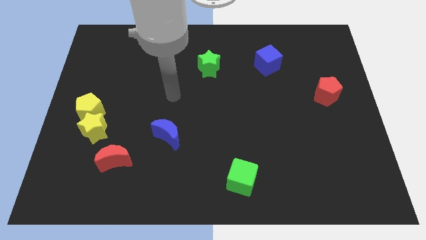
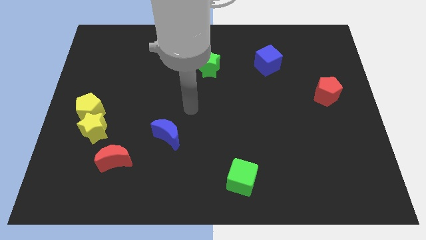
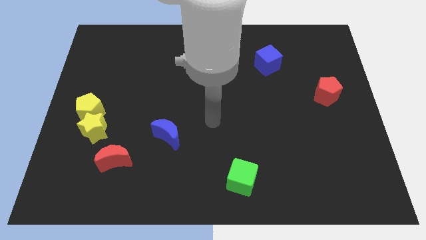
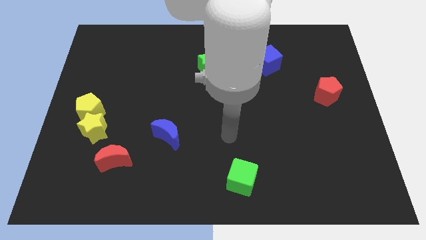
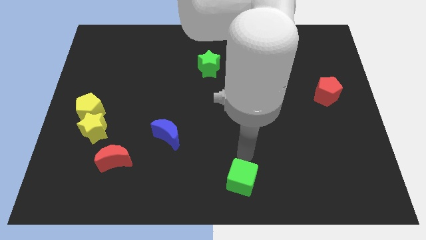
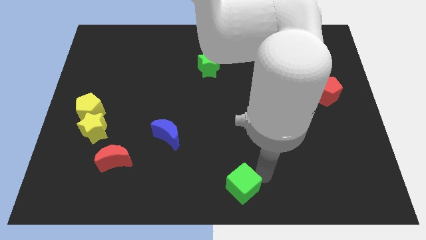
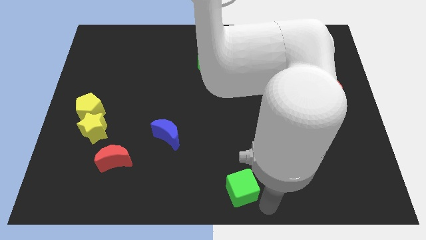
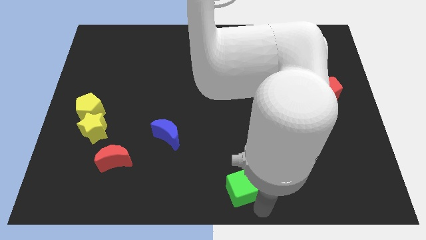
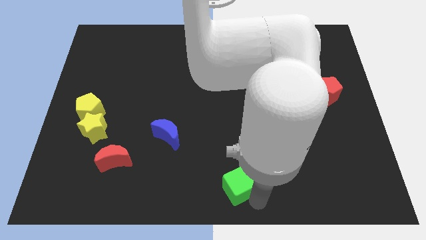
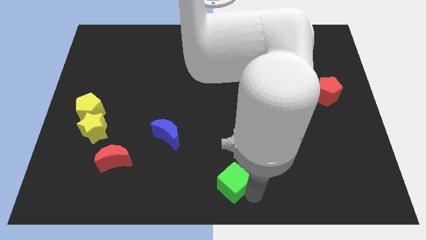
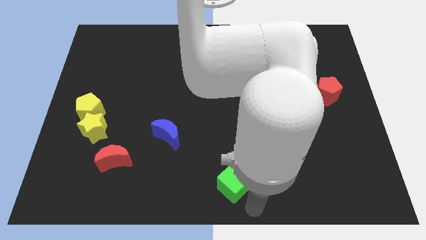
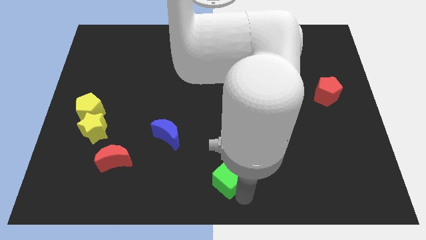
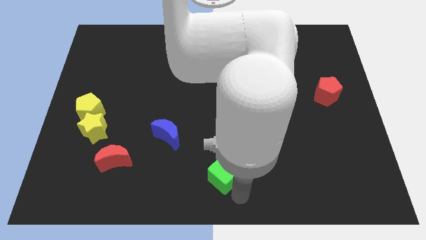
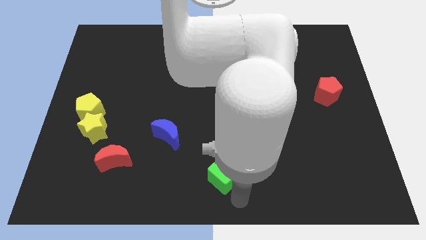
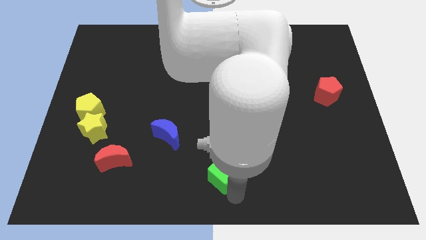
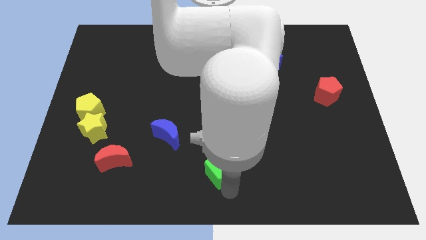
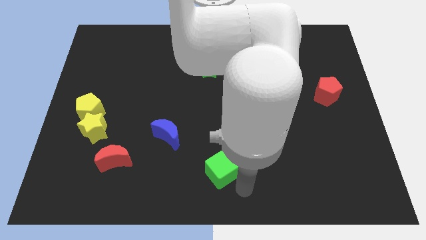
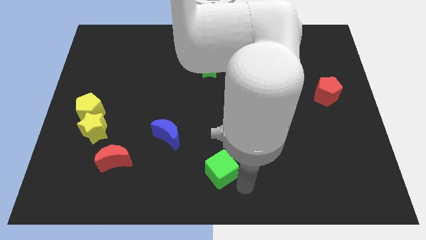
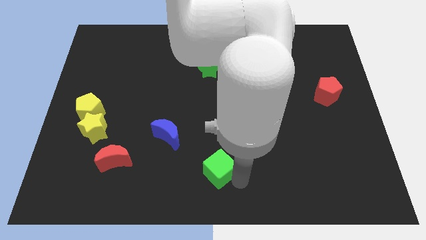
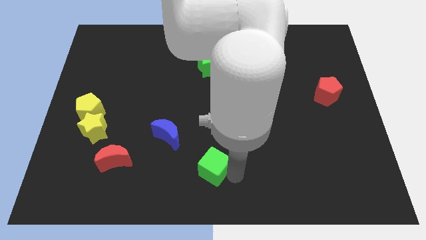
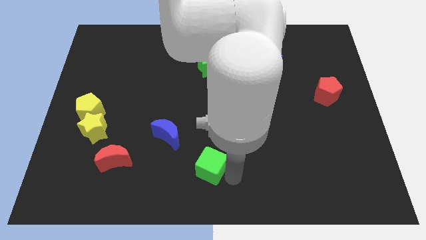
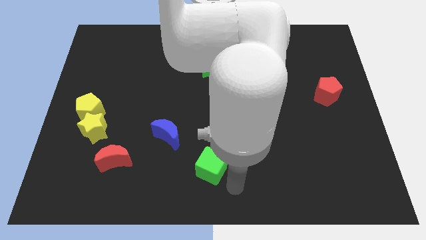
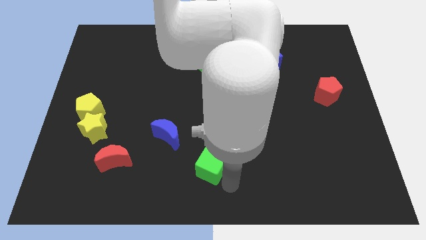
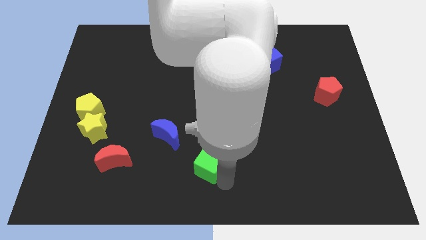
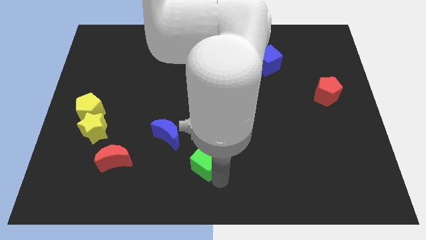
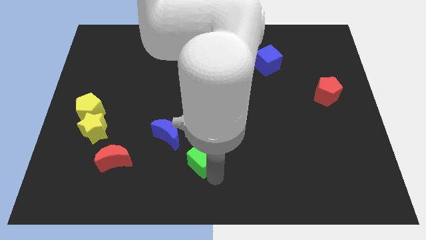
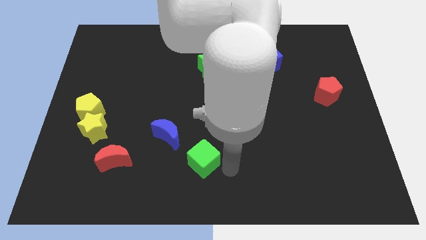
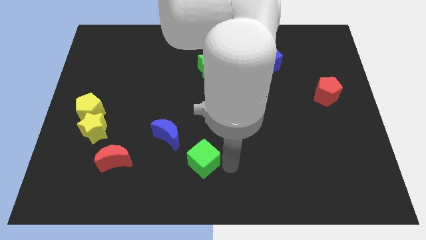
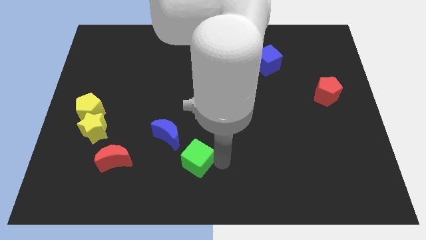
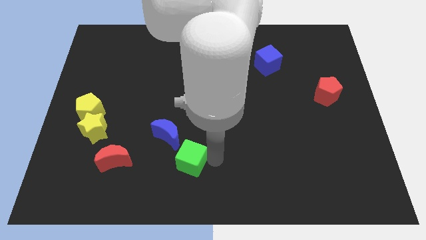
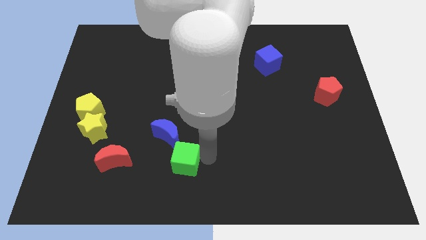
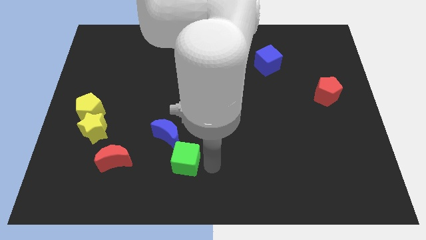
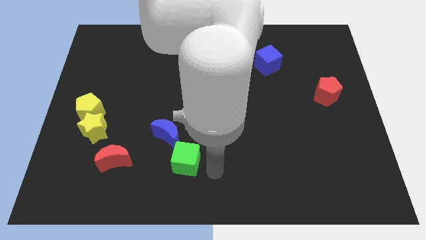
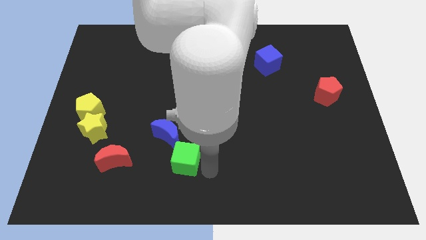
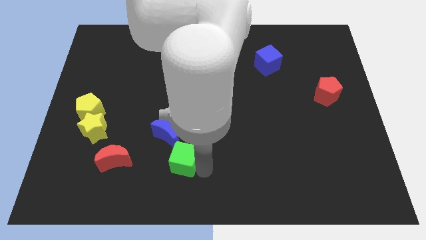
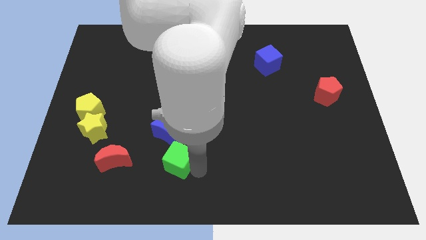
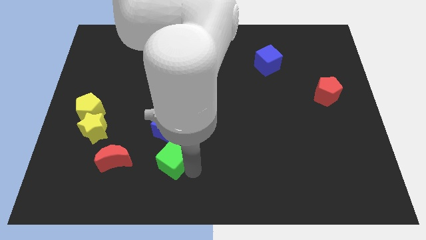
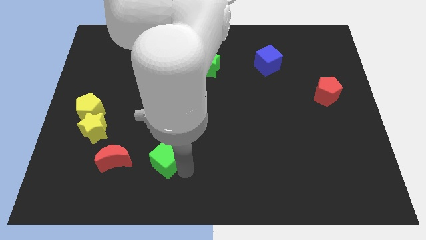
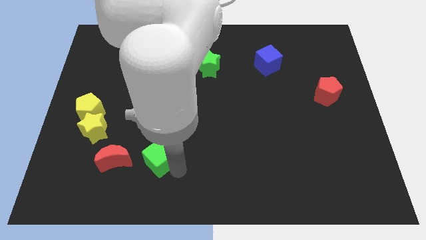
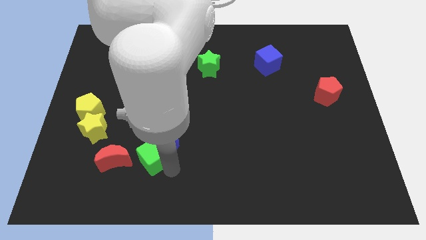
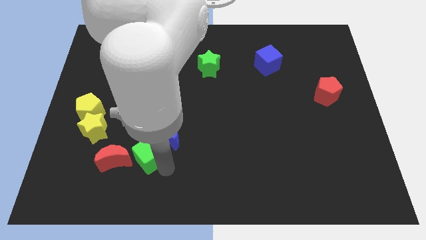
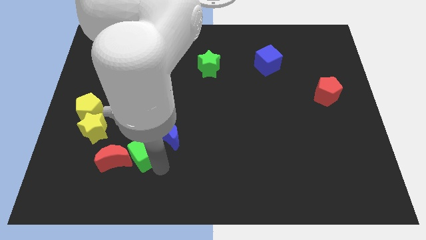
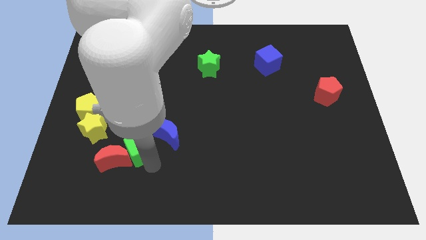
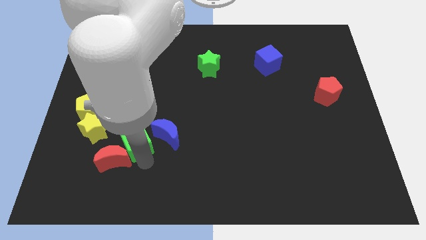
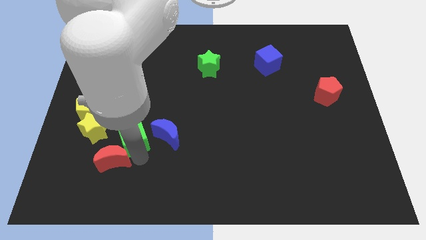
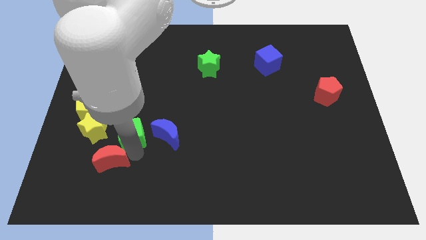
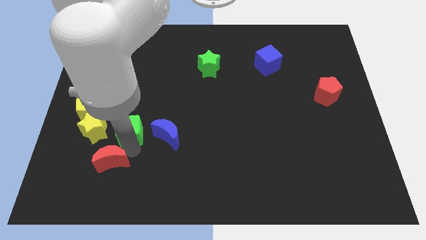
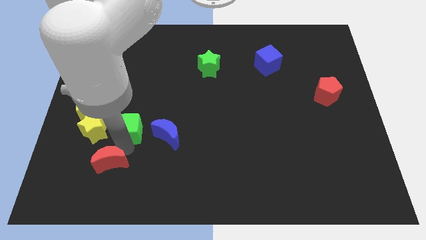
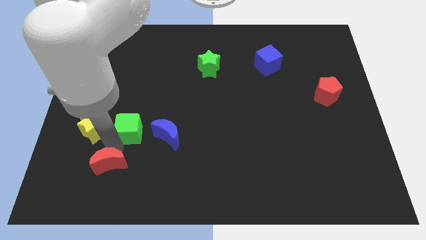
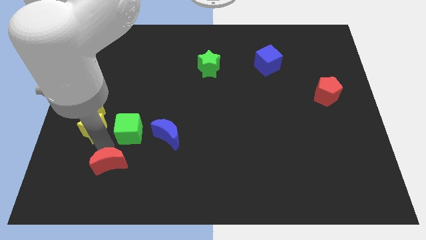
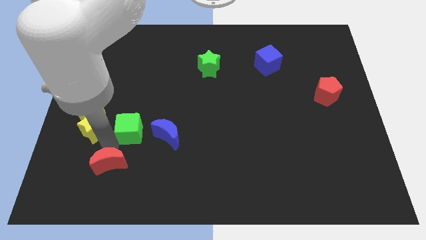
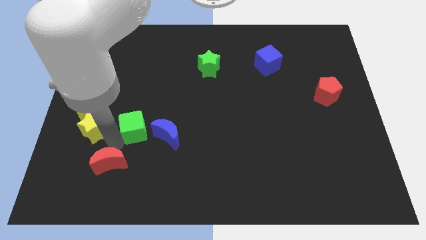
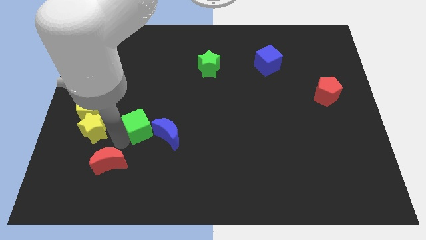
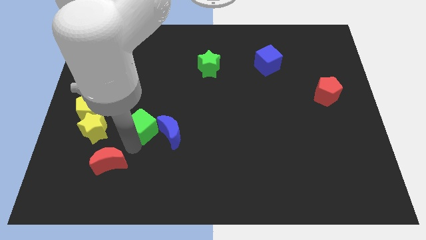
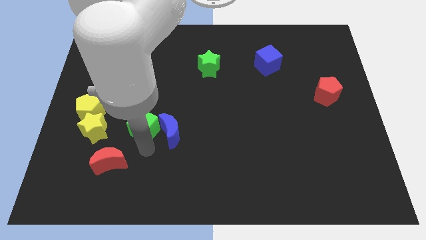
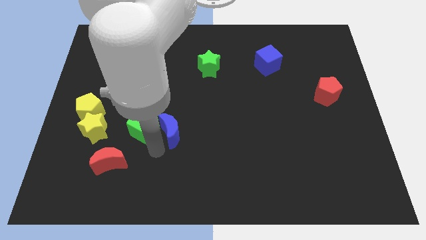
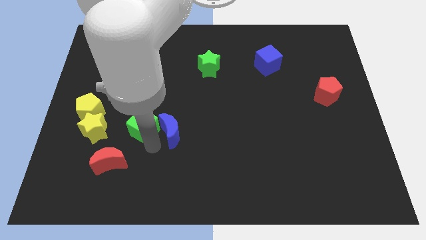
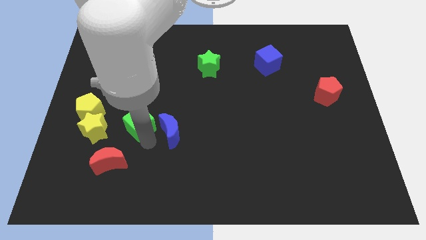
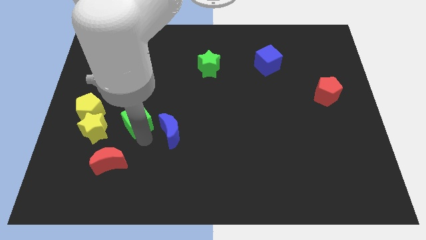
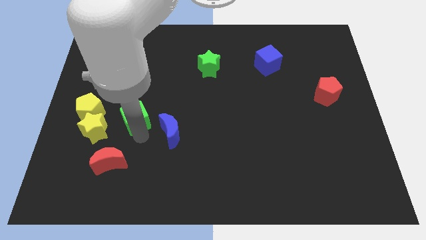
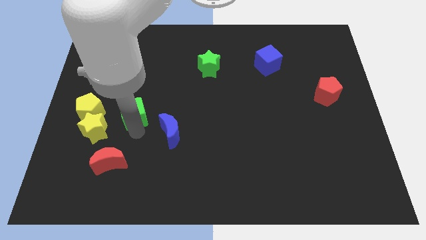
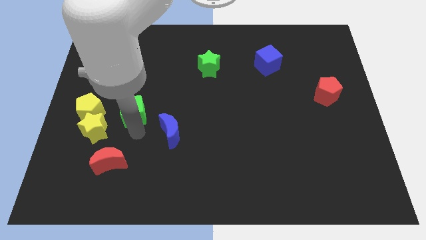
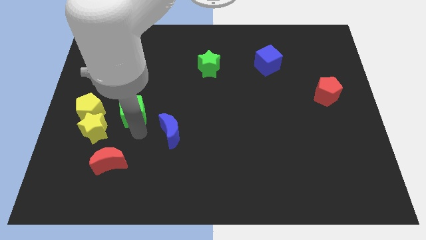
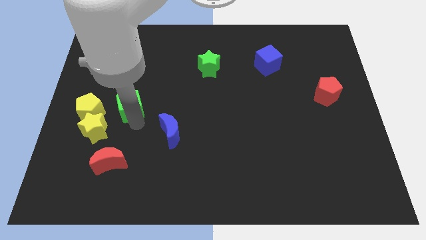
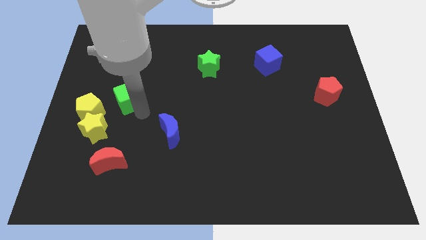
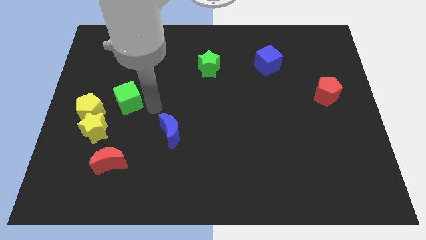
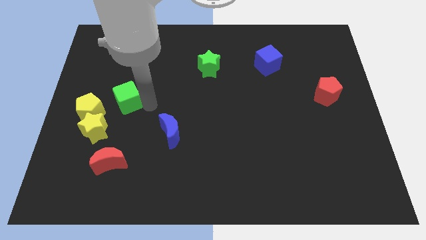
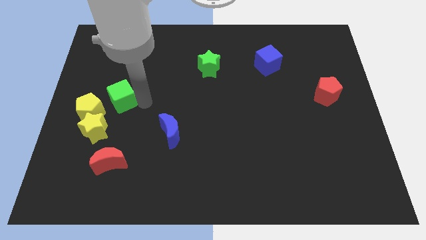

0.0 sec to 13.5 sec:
slide the green cube above the yellow star

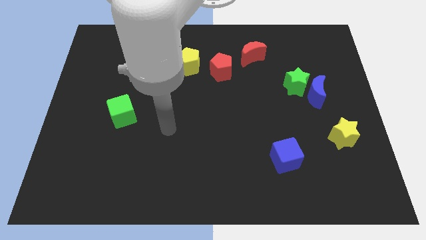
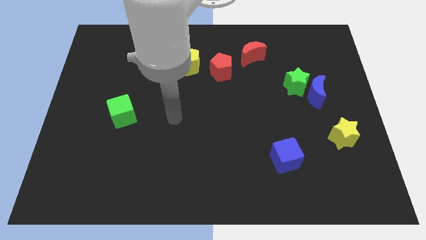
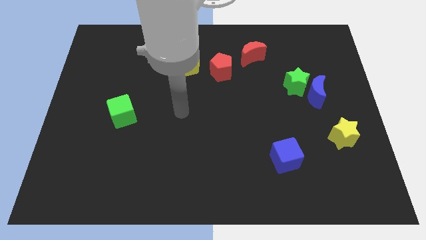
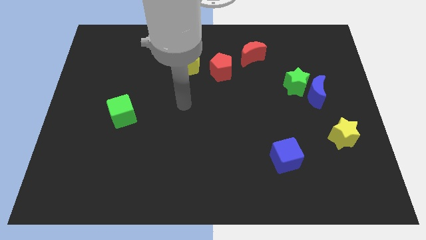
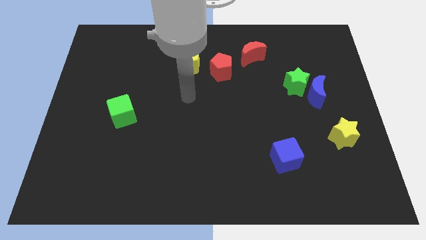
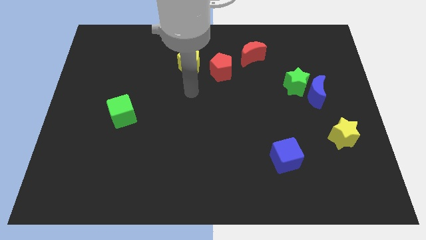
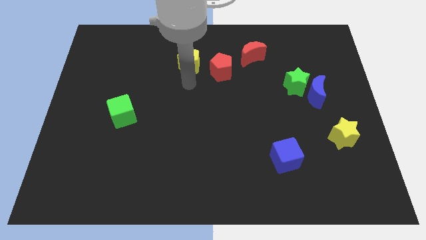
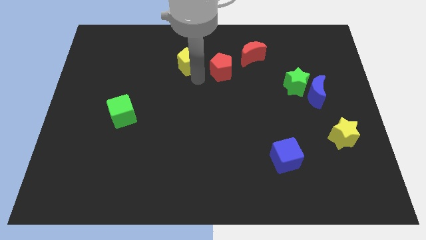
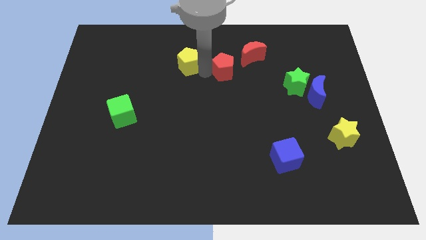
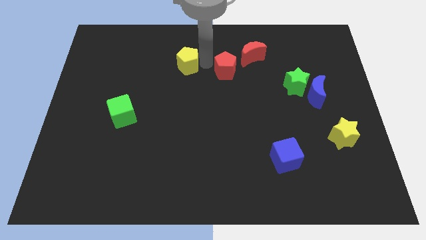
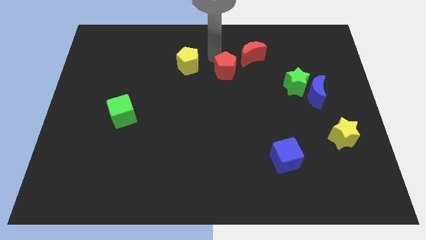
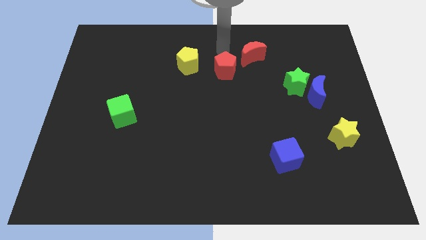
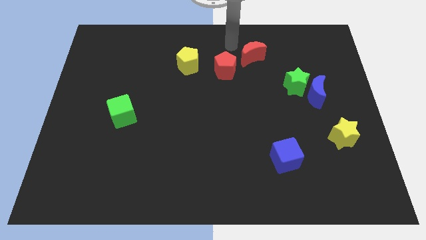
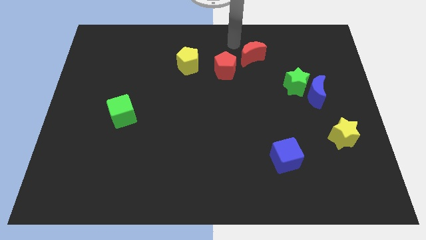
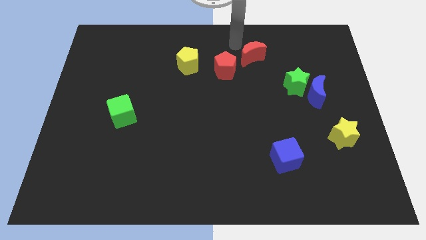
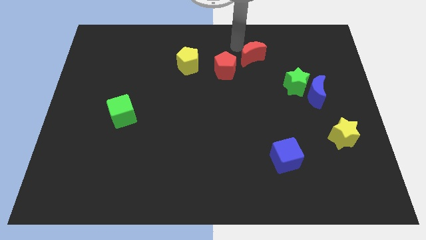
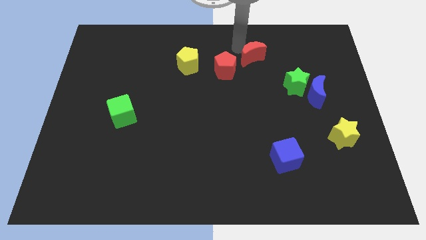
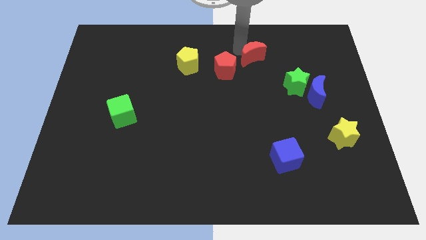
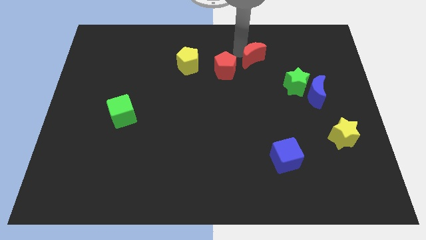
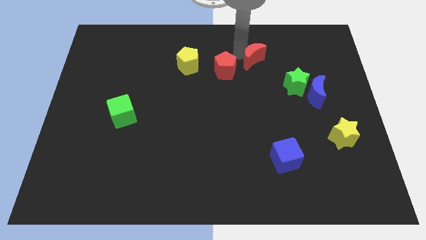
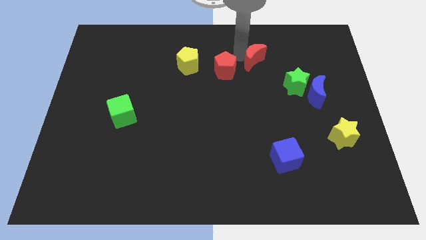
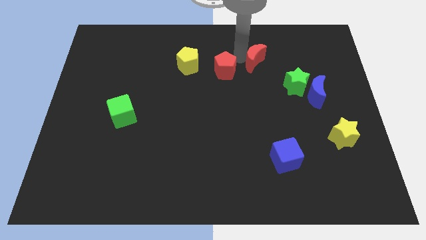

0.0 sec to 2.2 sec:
move the red moon to the top left of the green star
